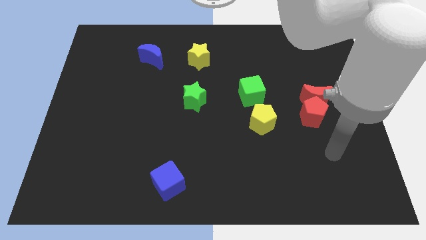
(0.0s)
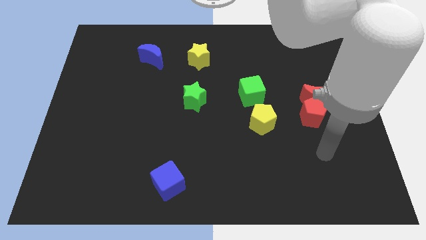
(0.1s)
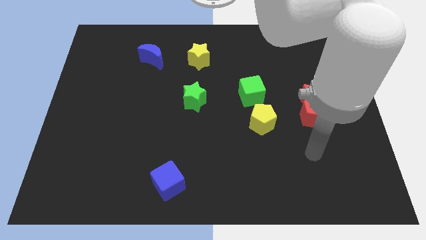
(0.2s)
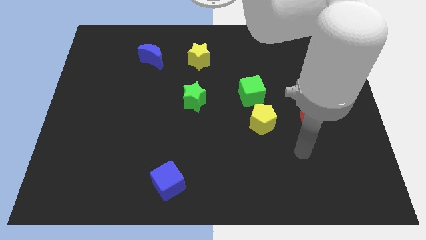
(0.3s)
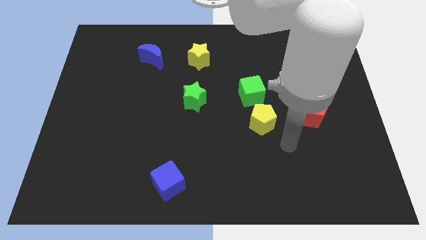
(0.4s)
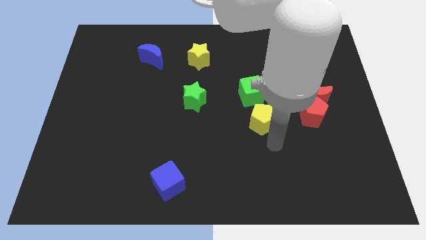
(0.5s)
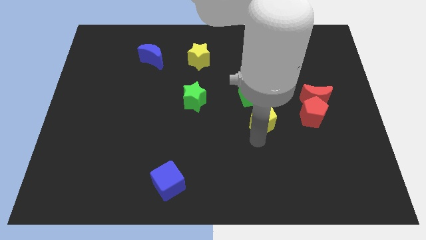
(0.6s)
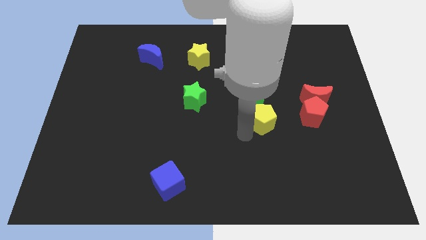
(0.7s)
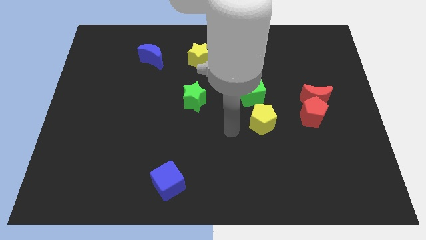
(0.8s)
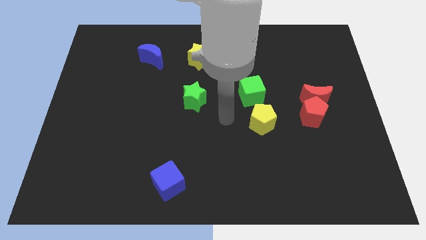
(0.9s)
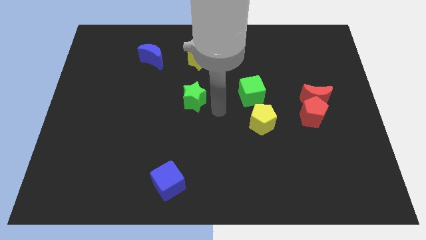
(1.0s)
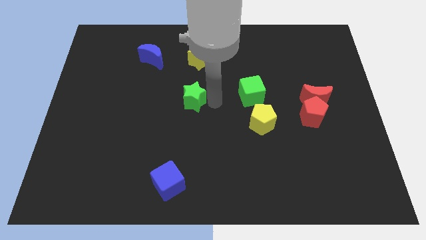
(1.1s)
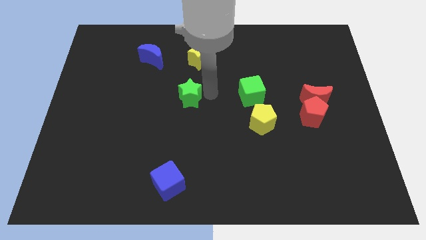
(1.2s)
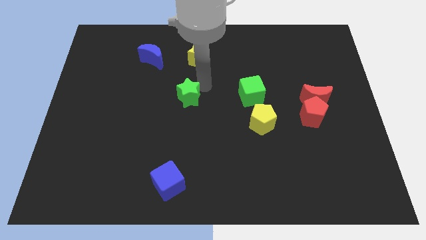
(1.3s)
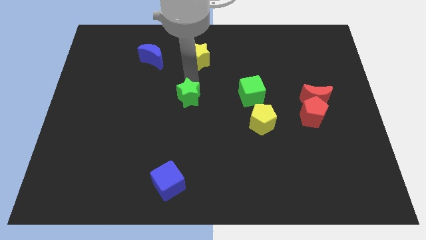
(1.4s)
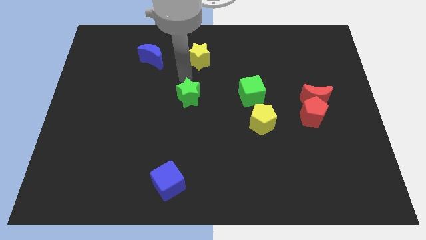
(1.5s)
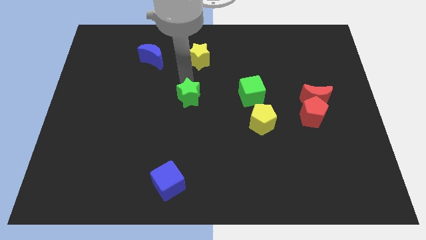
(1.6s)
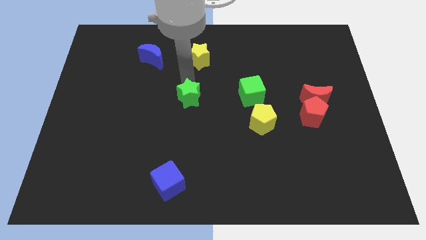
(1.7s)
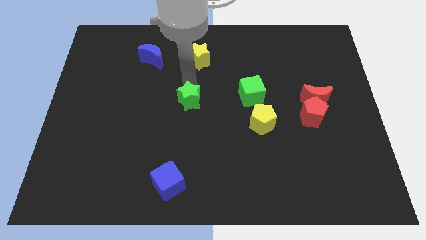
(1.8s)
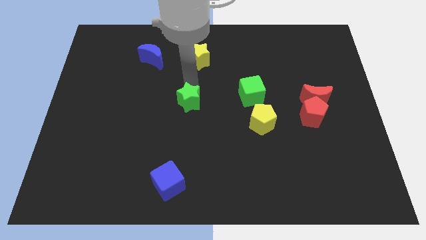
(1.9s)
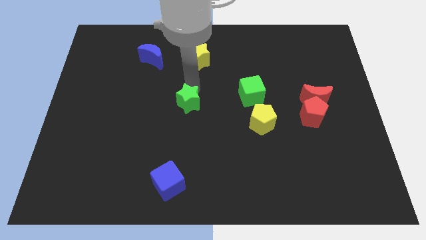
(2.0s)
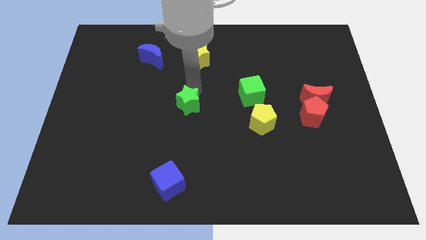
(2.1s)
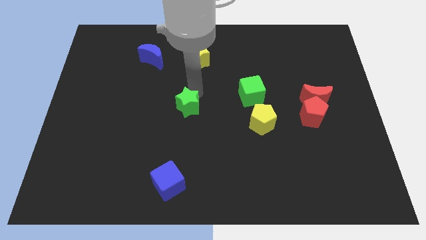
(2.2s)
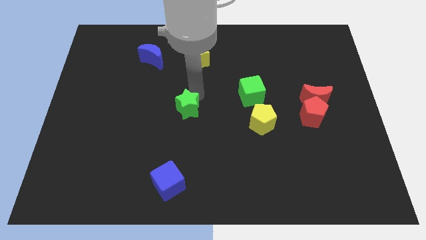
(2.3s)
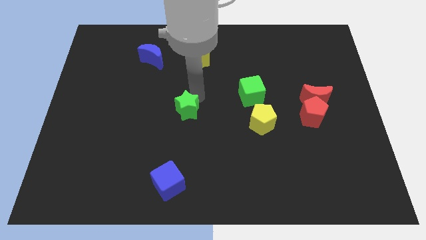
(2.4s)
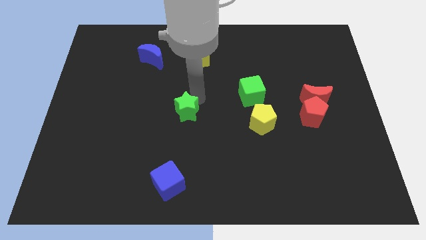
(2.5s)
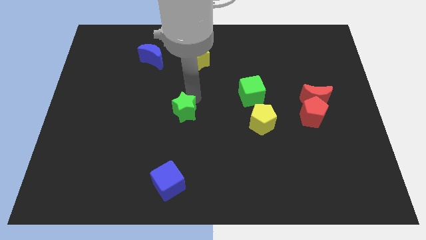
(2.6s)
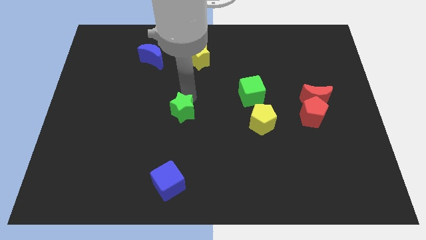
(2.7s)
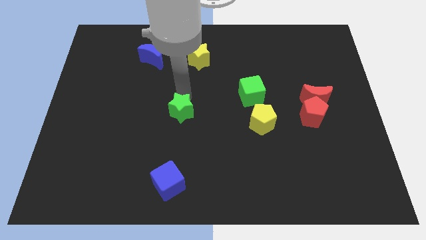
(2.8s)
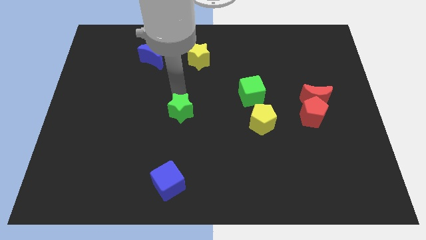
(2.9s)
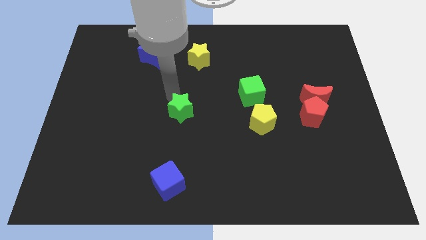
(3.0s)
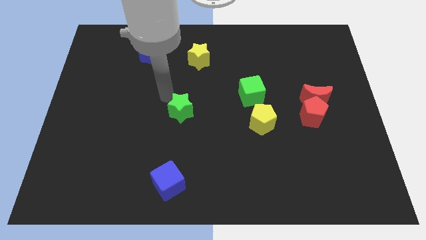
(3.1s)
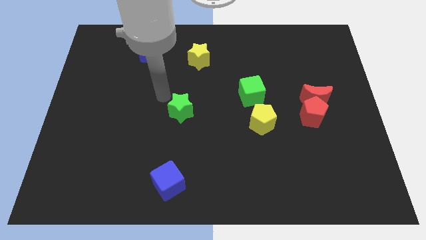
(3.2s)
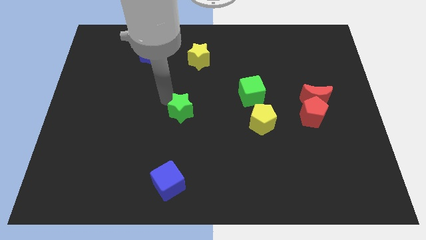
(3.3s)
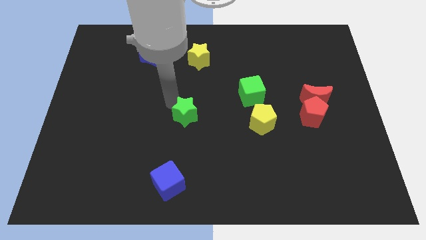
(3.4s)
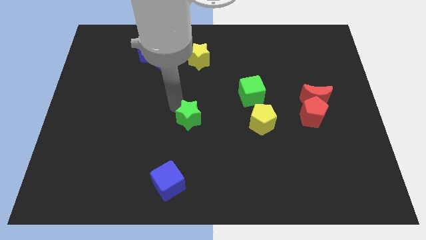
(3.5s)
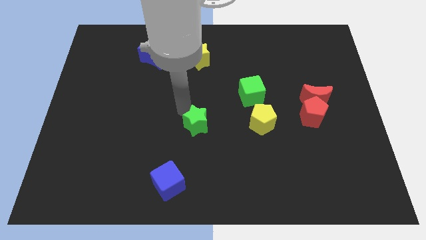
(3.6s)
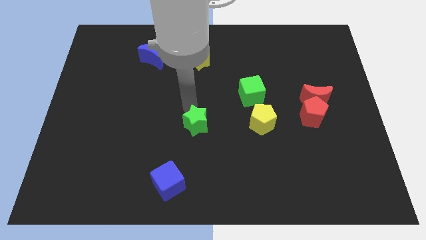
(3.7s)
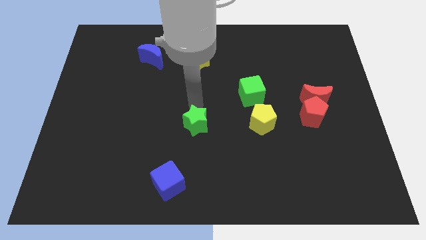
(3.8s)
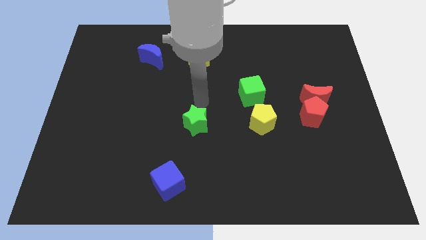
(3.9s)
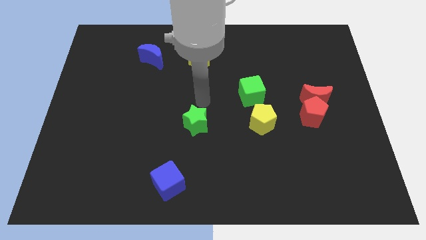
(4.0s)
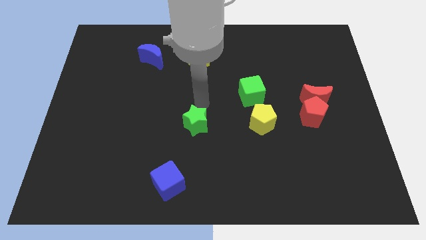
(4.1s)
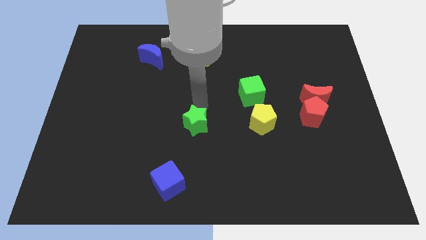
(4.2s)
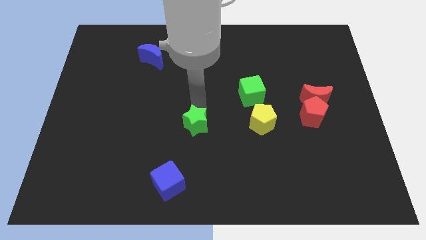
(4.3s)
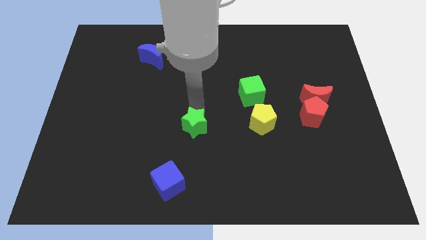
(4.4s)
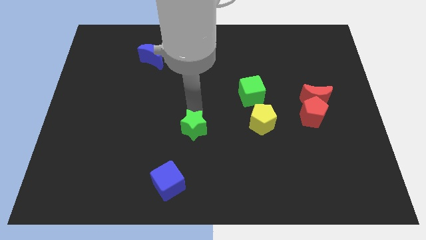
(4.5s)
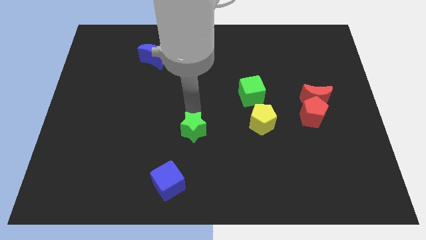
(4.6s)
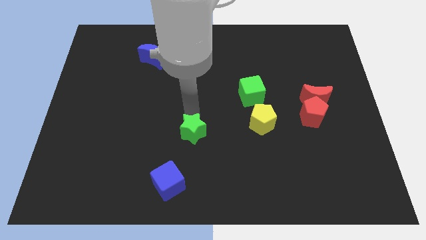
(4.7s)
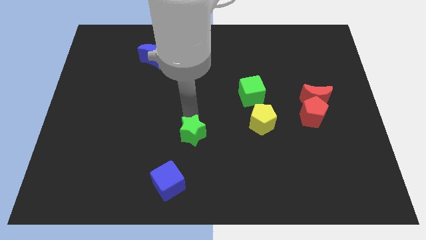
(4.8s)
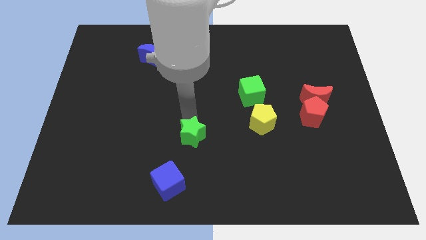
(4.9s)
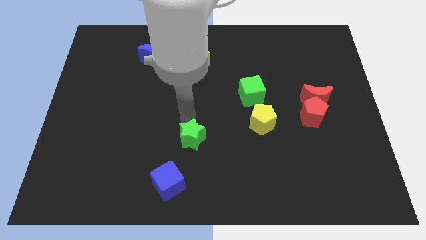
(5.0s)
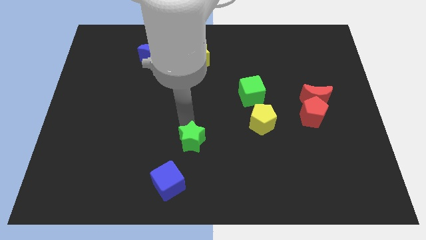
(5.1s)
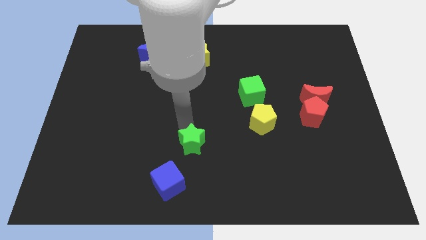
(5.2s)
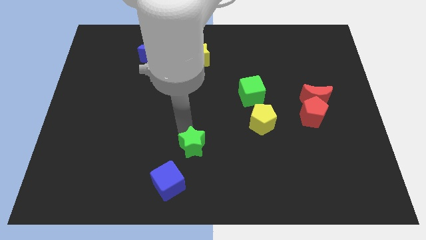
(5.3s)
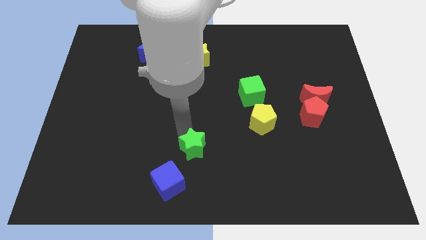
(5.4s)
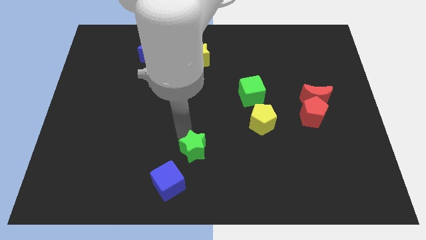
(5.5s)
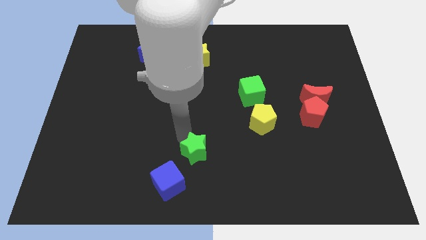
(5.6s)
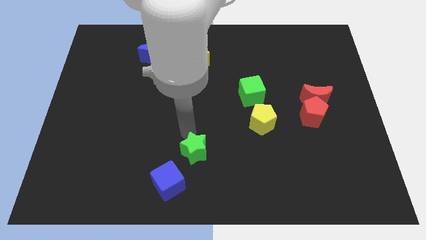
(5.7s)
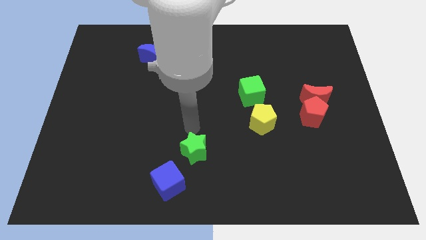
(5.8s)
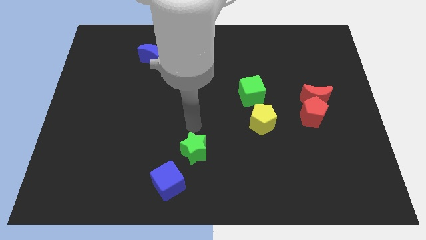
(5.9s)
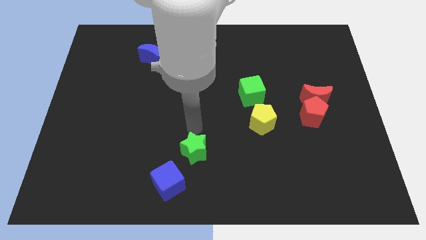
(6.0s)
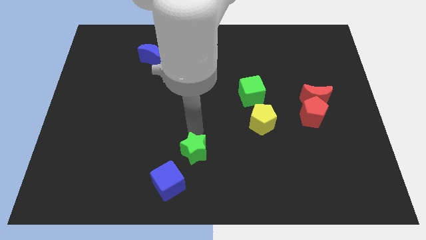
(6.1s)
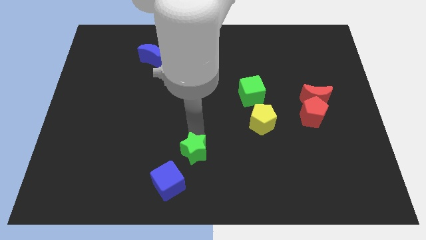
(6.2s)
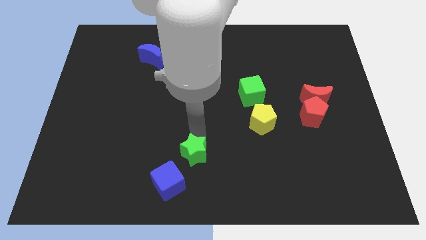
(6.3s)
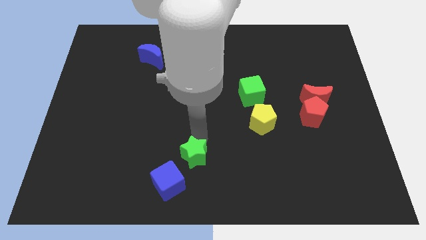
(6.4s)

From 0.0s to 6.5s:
slide the green star to the bottom side

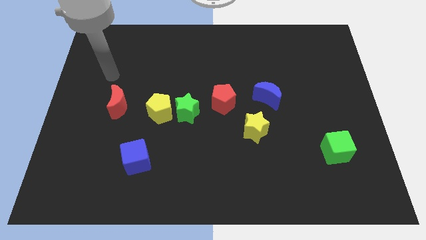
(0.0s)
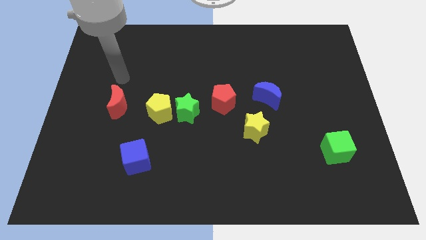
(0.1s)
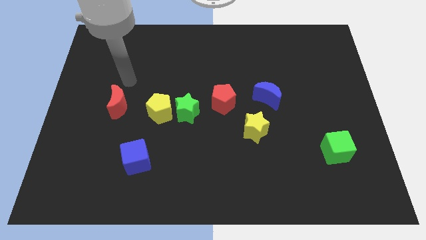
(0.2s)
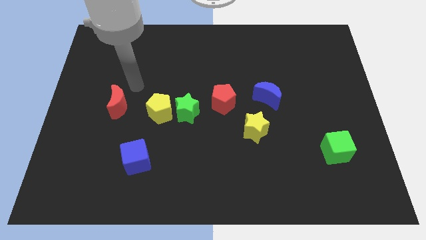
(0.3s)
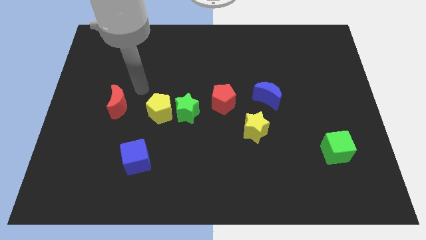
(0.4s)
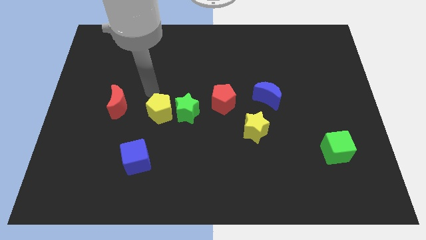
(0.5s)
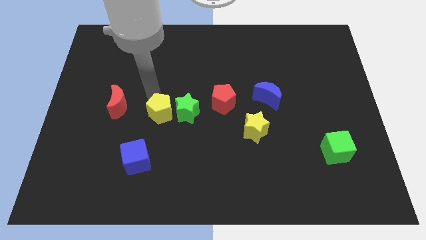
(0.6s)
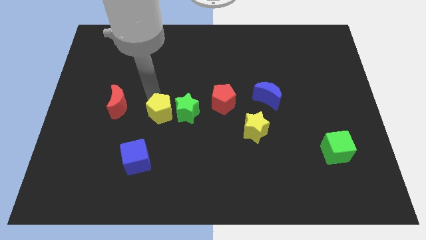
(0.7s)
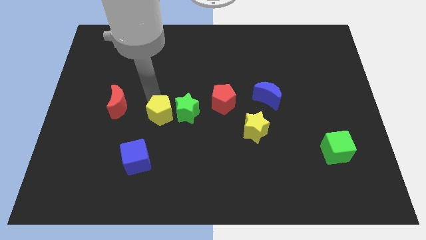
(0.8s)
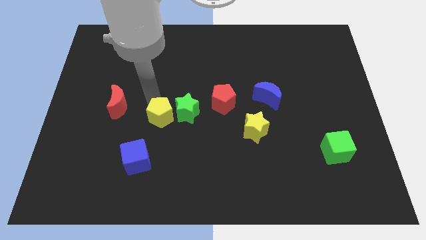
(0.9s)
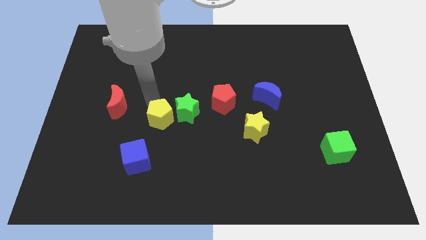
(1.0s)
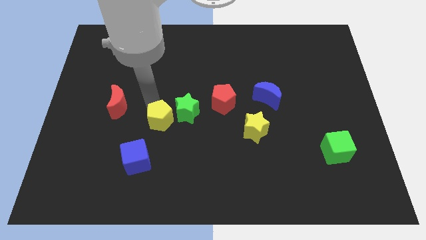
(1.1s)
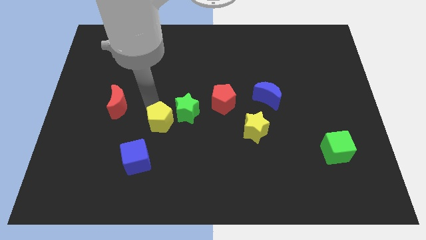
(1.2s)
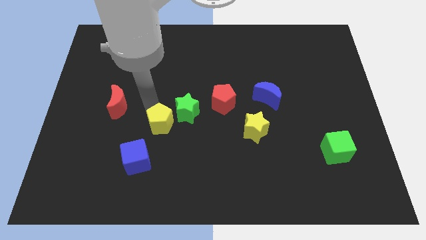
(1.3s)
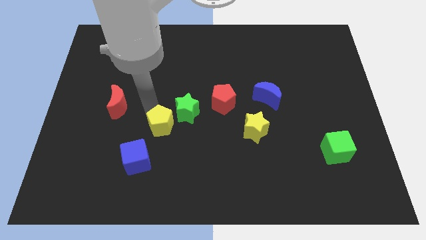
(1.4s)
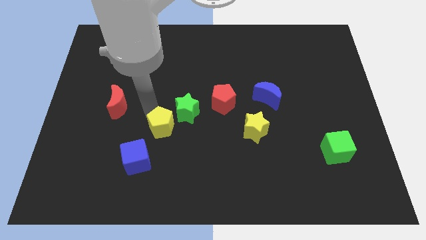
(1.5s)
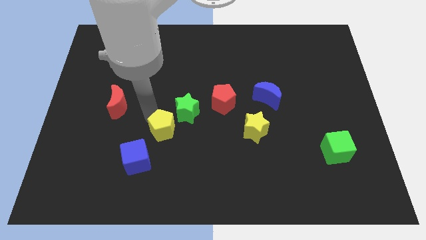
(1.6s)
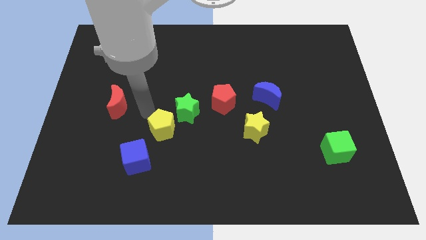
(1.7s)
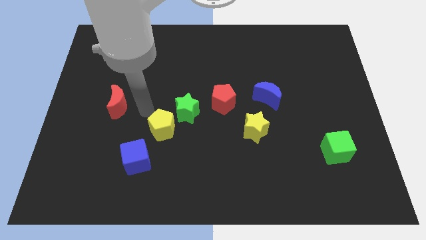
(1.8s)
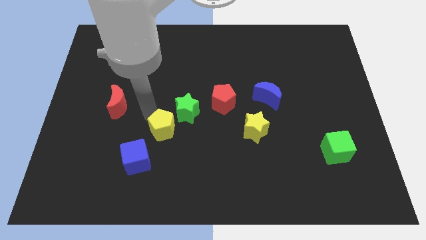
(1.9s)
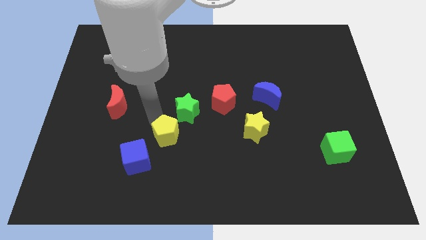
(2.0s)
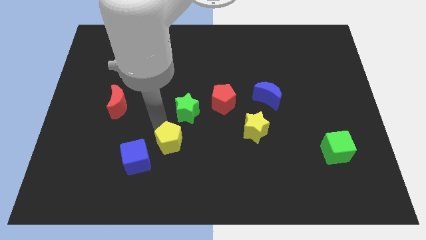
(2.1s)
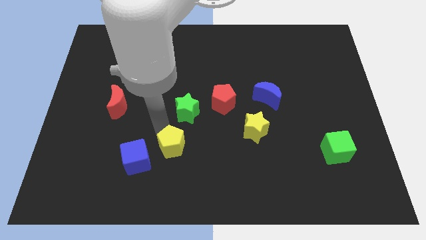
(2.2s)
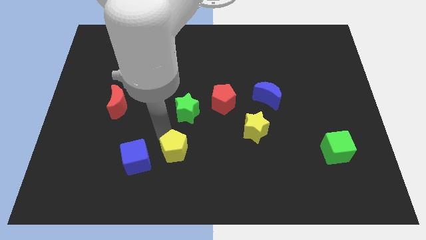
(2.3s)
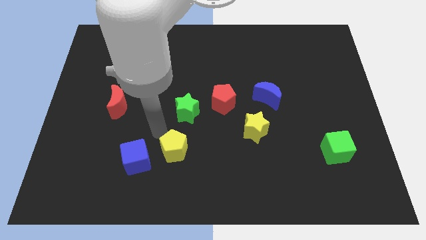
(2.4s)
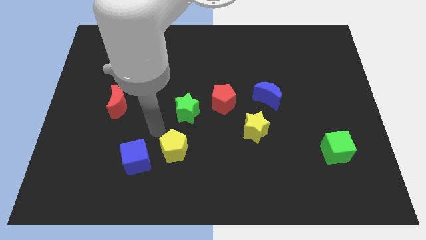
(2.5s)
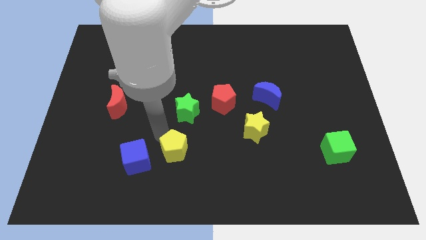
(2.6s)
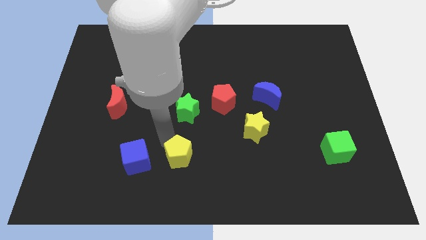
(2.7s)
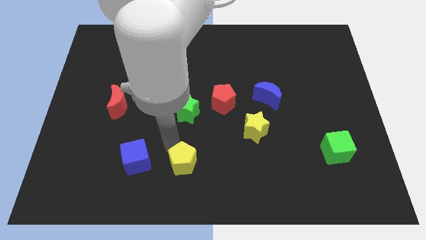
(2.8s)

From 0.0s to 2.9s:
move the yellow pentagon to the bottom side
